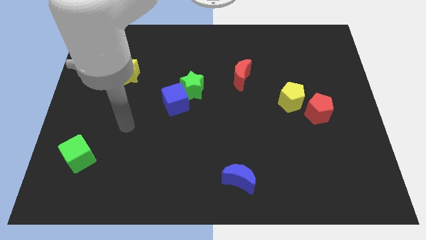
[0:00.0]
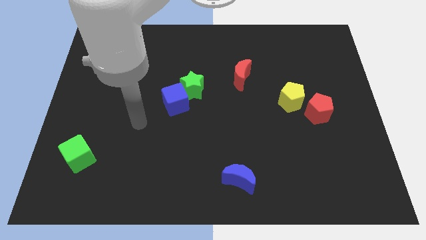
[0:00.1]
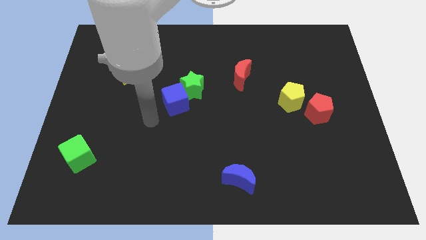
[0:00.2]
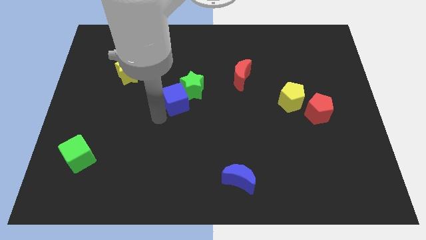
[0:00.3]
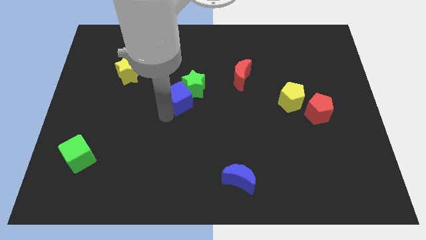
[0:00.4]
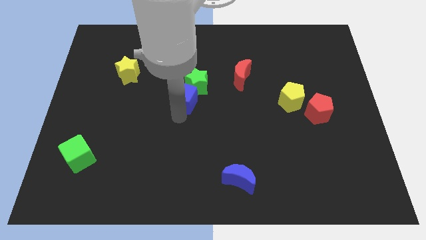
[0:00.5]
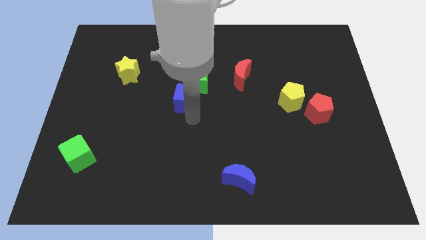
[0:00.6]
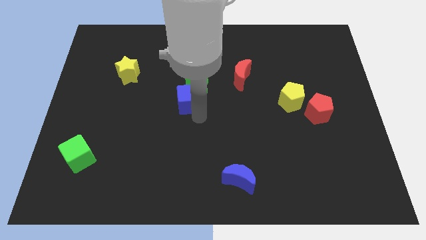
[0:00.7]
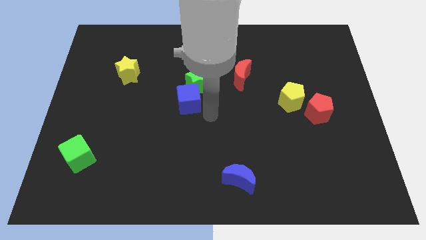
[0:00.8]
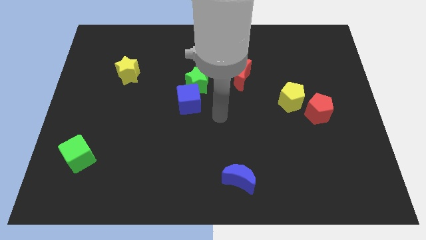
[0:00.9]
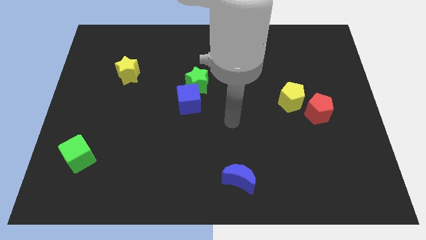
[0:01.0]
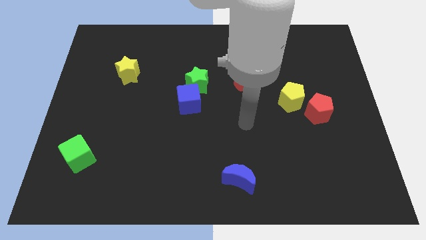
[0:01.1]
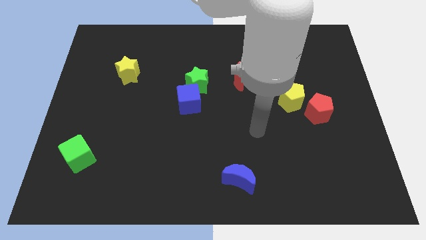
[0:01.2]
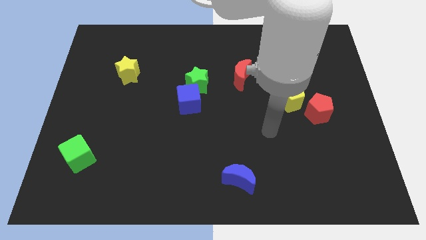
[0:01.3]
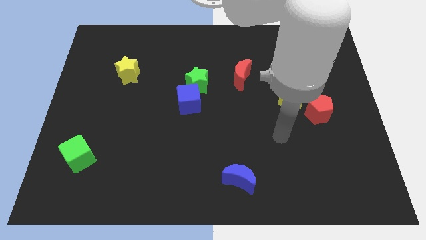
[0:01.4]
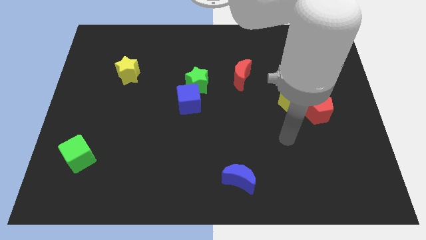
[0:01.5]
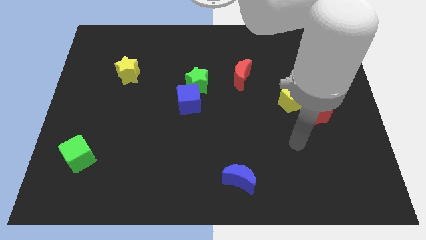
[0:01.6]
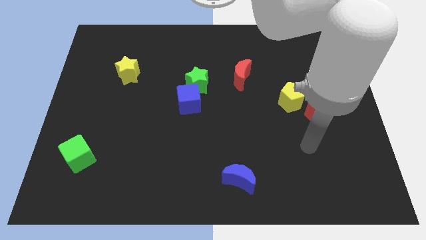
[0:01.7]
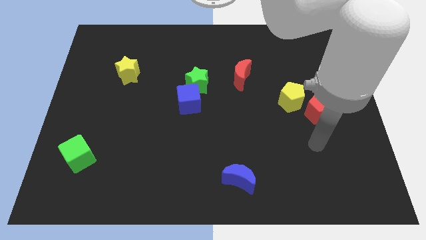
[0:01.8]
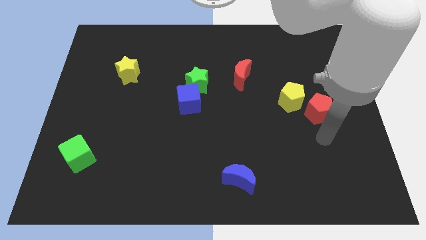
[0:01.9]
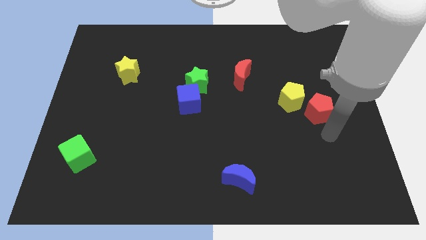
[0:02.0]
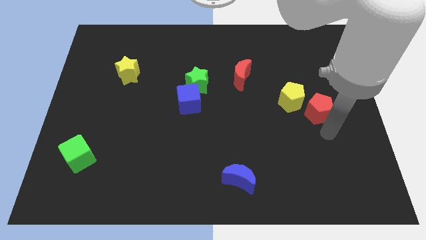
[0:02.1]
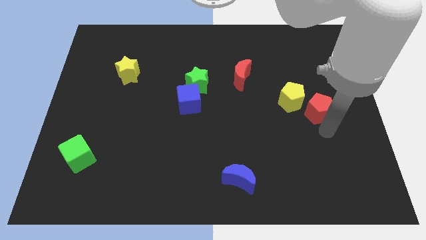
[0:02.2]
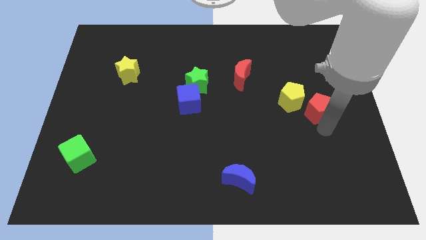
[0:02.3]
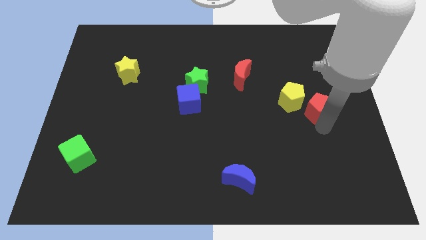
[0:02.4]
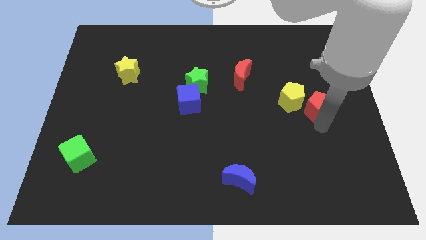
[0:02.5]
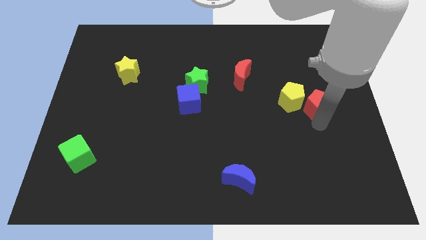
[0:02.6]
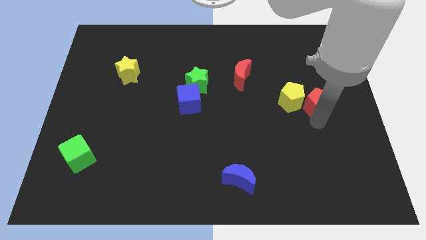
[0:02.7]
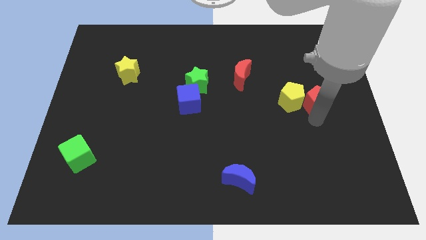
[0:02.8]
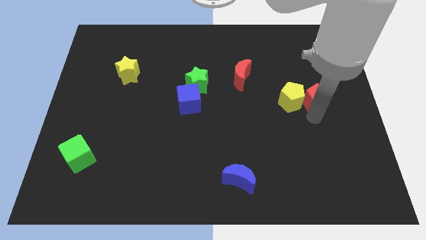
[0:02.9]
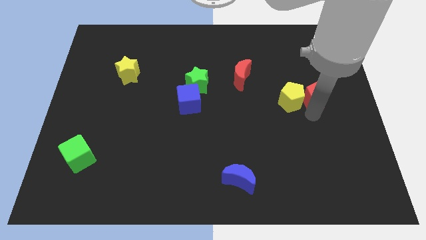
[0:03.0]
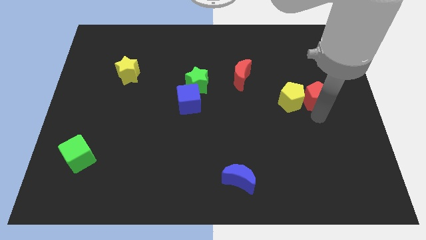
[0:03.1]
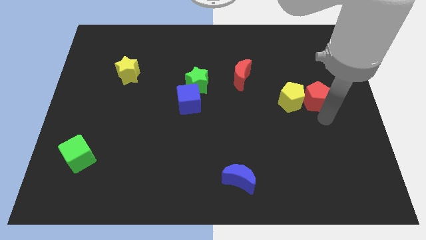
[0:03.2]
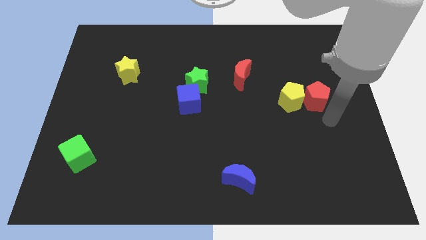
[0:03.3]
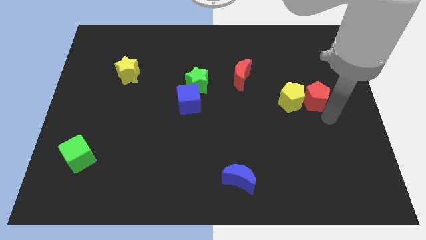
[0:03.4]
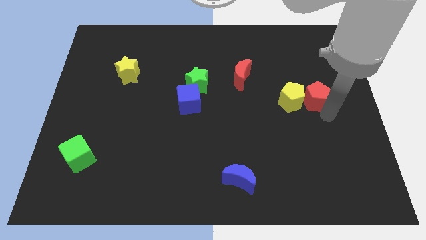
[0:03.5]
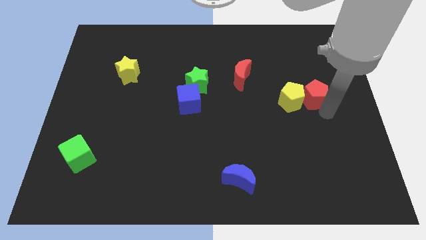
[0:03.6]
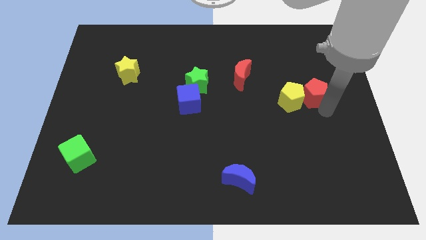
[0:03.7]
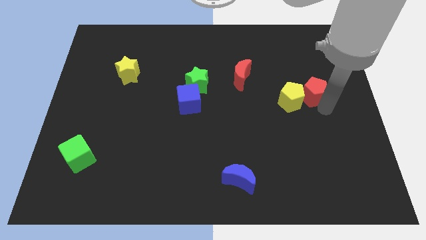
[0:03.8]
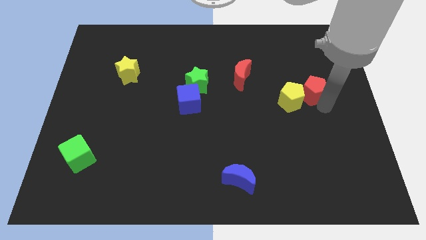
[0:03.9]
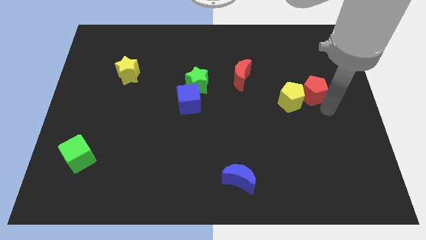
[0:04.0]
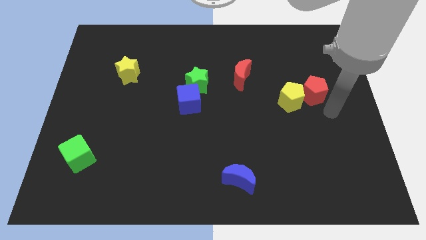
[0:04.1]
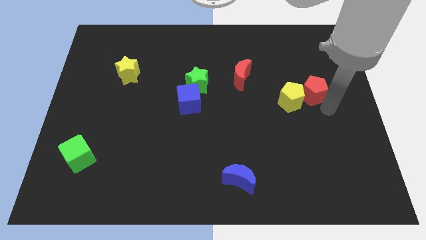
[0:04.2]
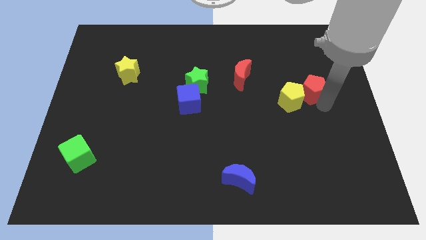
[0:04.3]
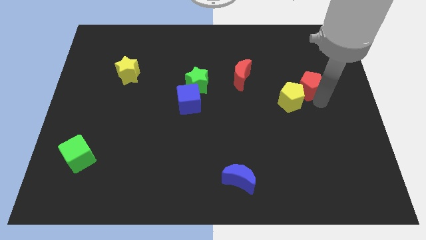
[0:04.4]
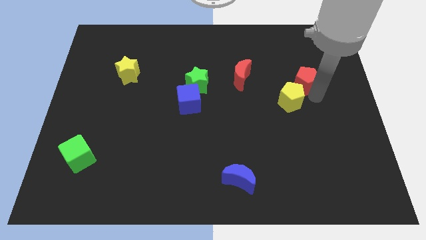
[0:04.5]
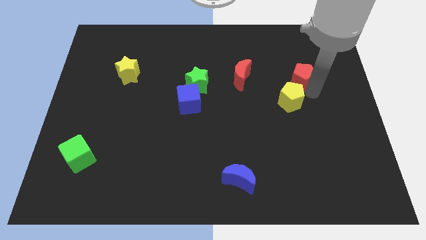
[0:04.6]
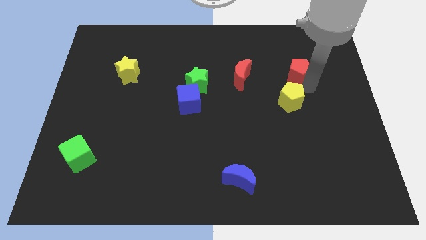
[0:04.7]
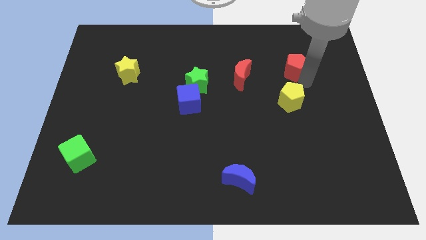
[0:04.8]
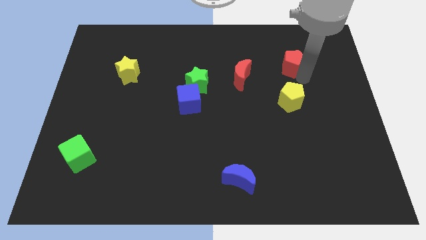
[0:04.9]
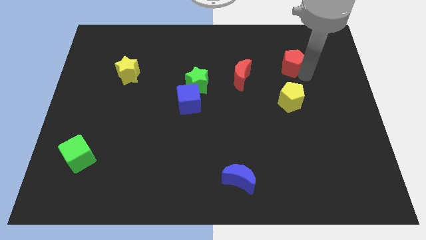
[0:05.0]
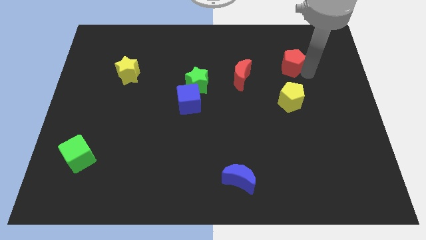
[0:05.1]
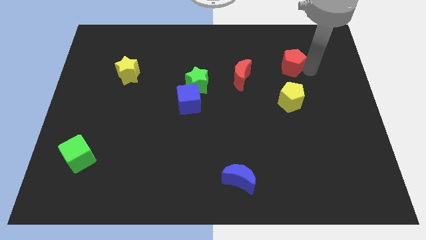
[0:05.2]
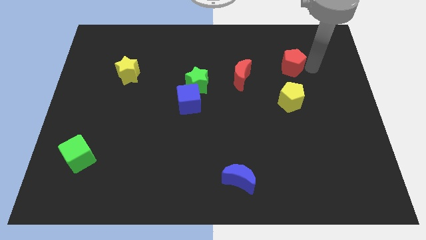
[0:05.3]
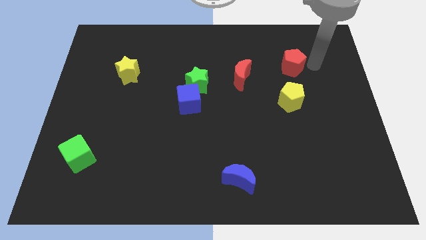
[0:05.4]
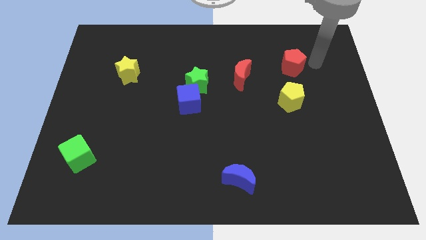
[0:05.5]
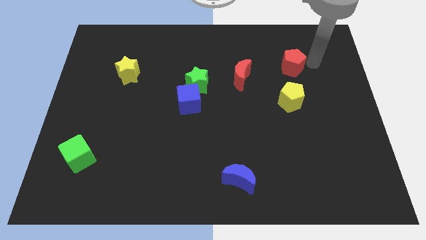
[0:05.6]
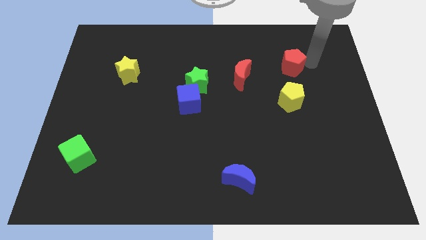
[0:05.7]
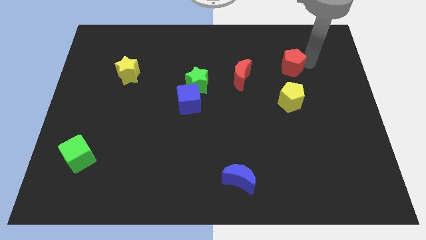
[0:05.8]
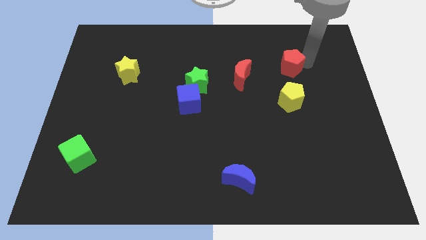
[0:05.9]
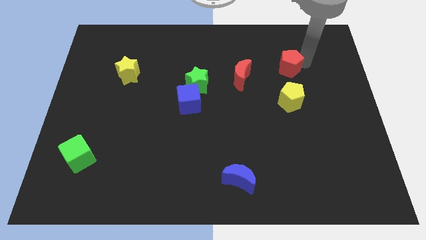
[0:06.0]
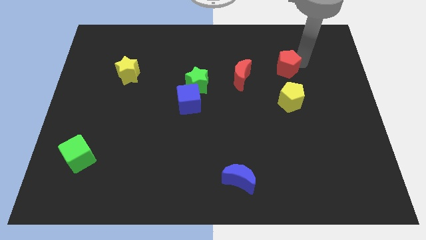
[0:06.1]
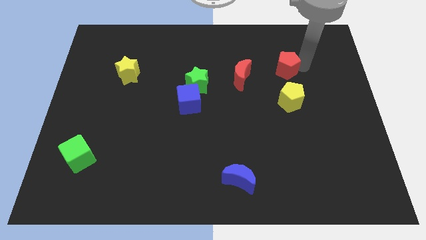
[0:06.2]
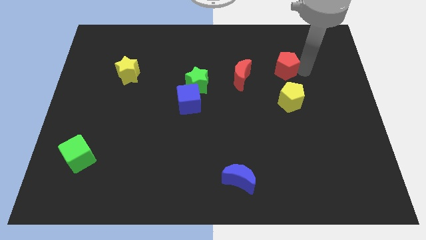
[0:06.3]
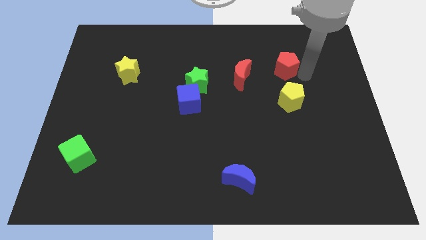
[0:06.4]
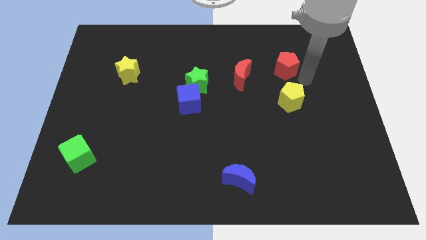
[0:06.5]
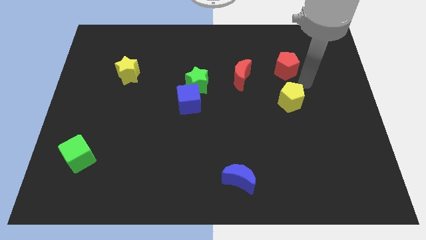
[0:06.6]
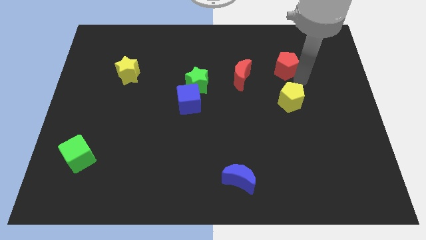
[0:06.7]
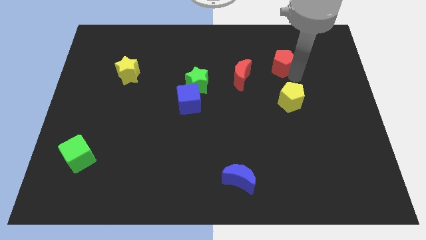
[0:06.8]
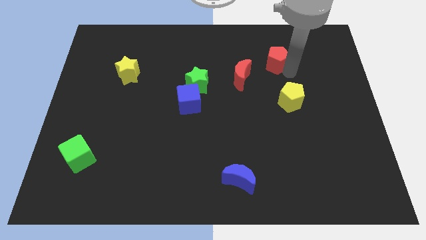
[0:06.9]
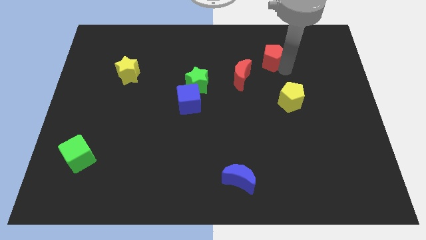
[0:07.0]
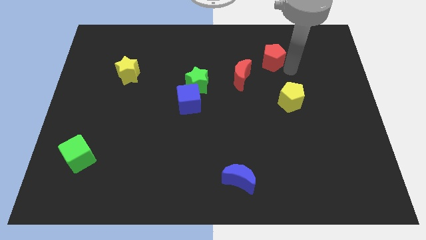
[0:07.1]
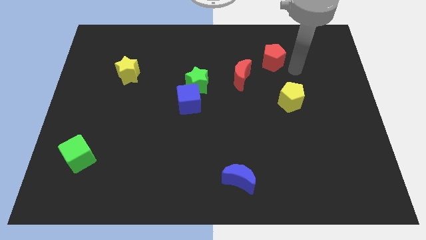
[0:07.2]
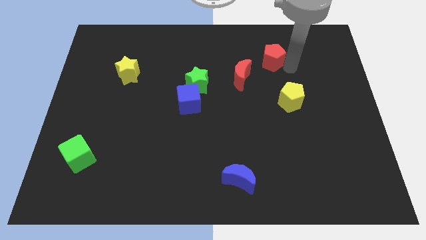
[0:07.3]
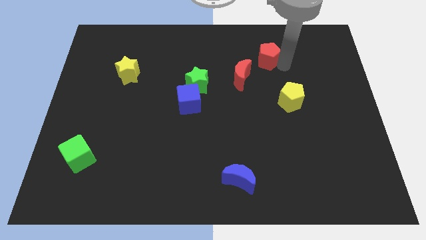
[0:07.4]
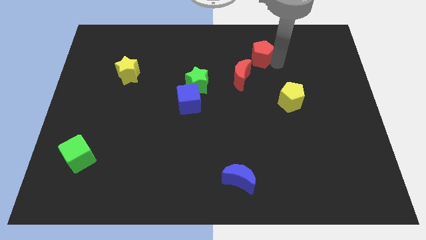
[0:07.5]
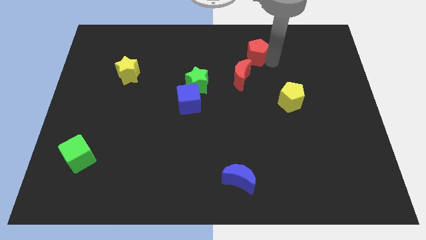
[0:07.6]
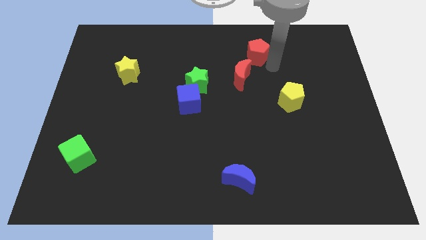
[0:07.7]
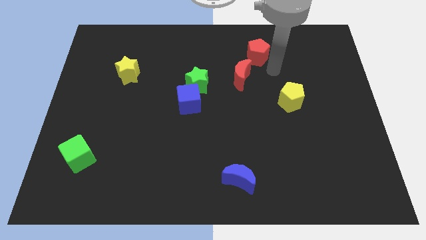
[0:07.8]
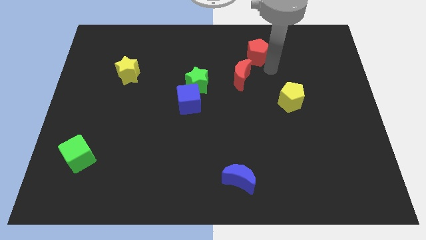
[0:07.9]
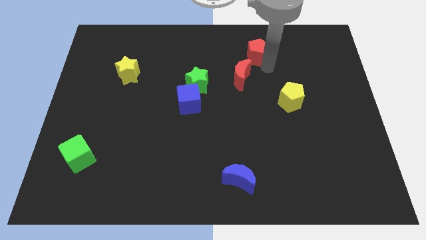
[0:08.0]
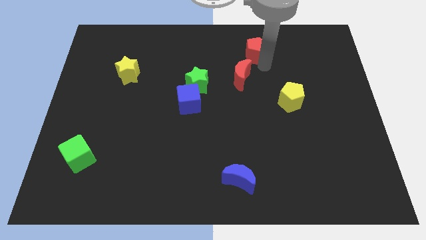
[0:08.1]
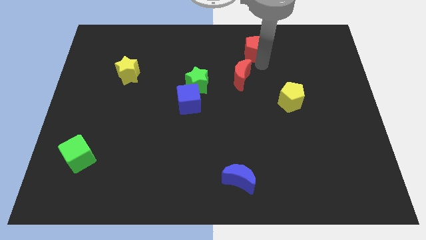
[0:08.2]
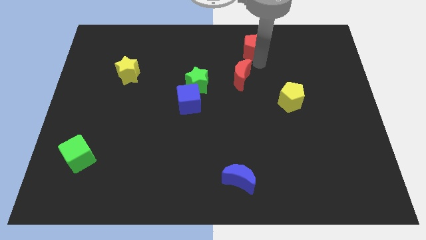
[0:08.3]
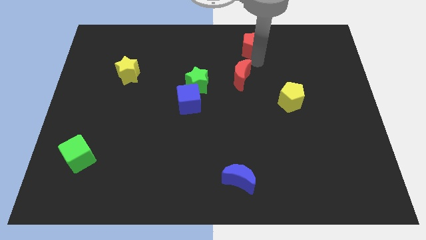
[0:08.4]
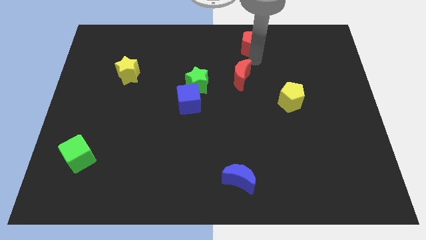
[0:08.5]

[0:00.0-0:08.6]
put the red pentagon to the top side
